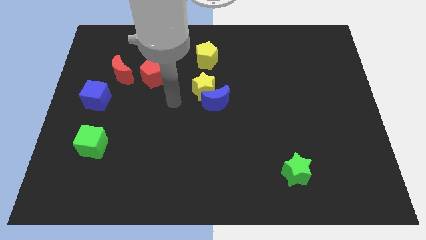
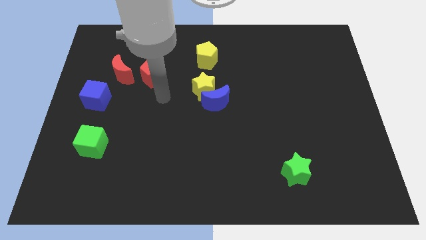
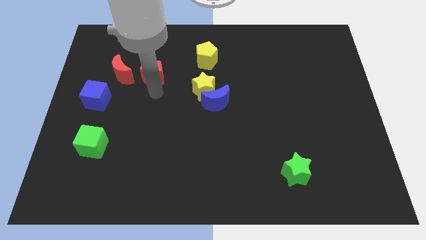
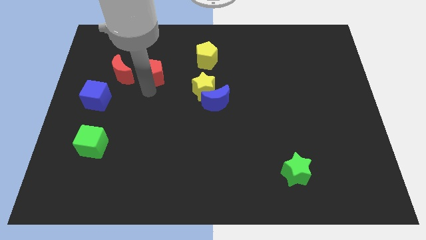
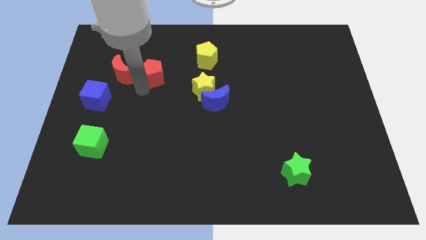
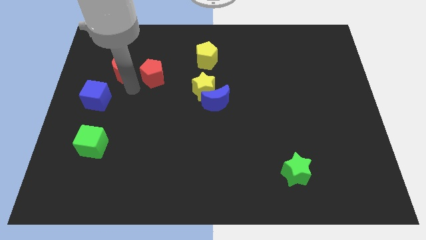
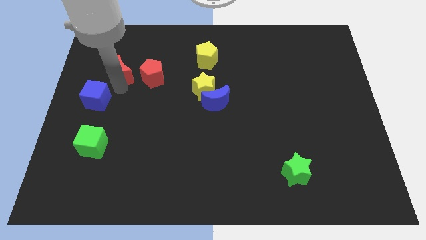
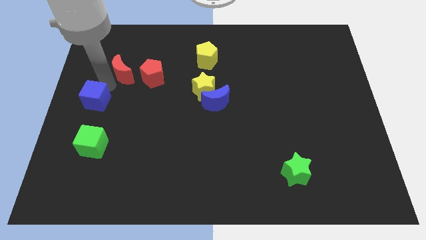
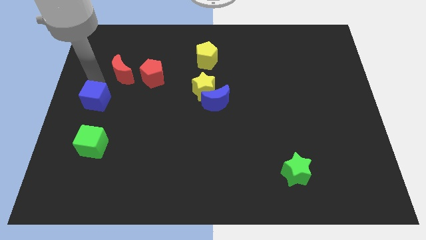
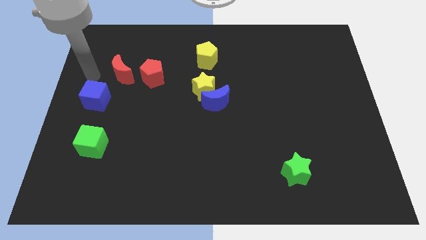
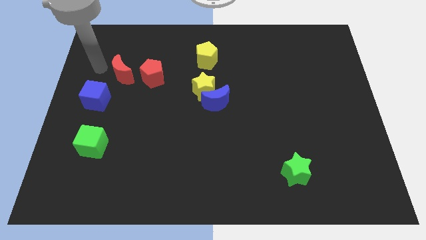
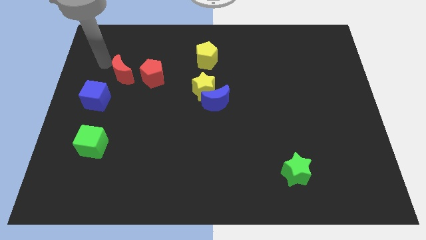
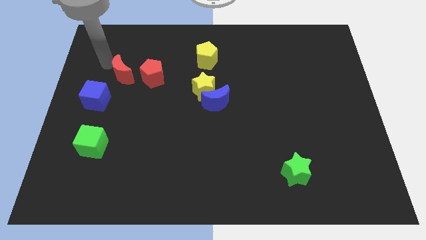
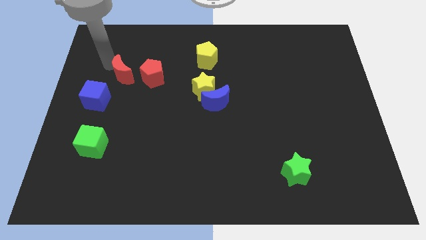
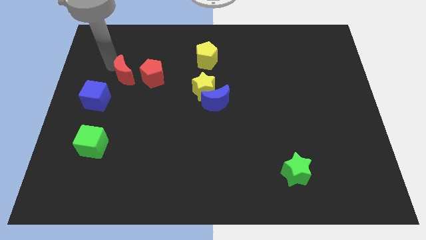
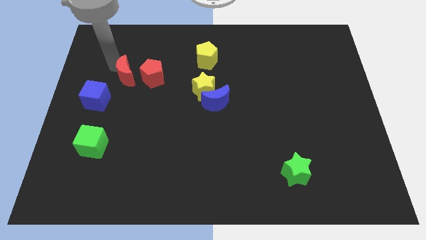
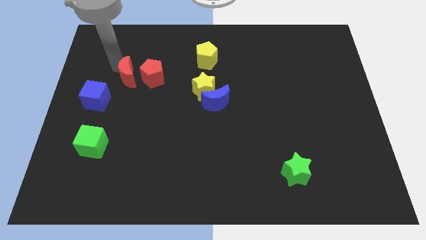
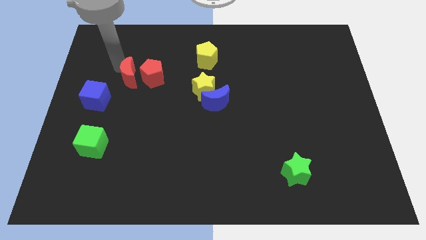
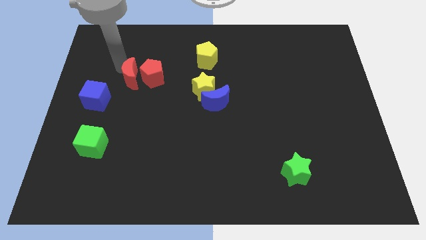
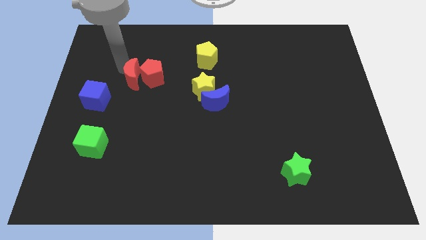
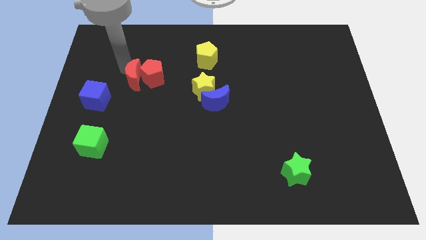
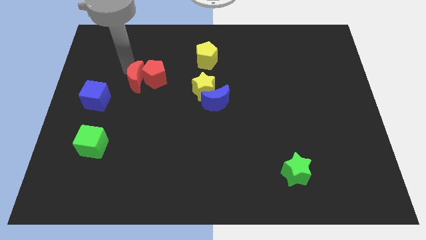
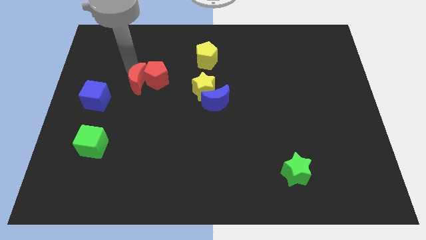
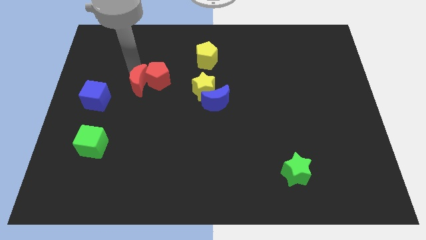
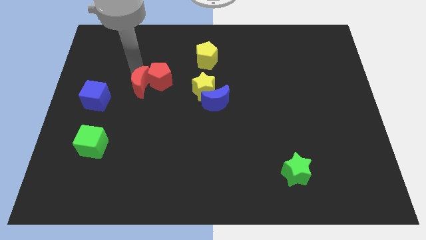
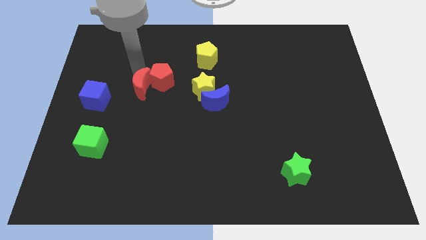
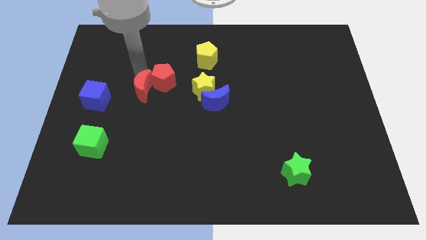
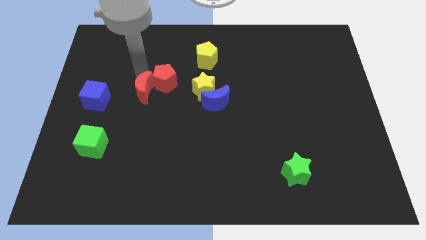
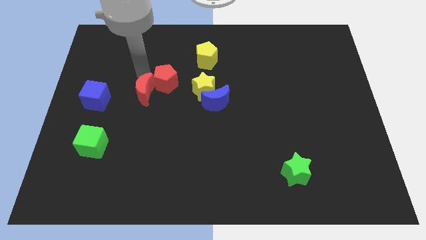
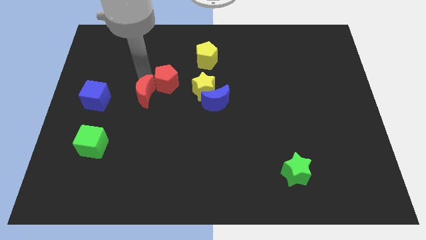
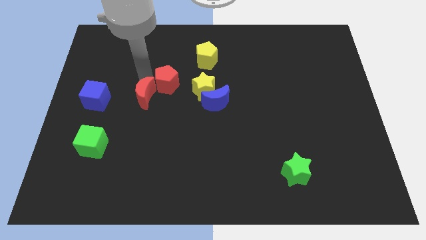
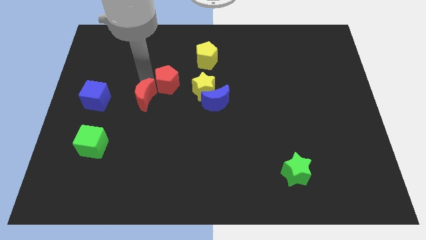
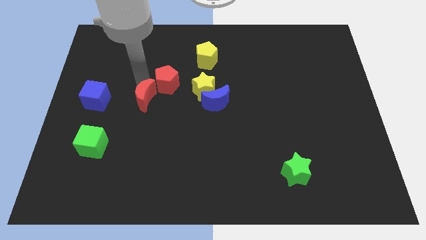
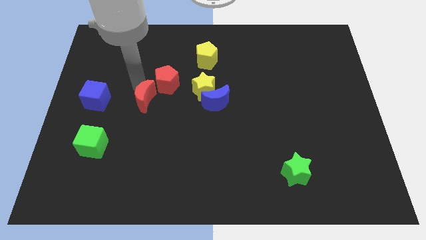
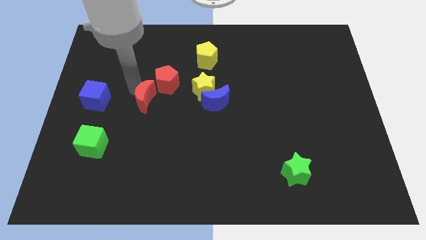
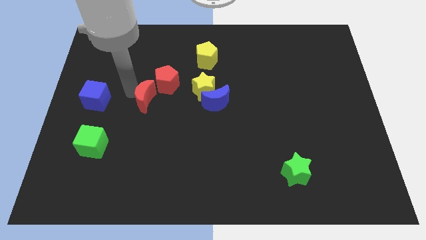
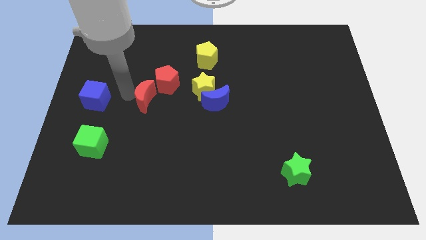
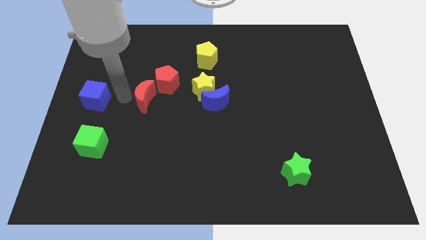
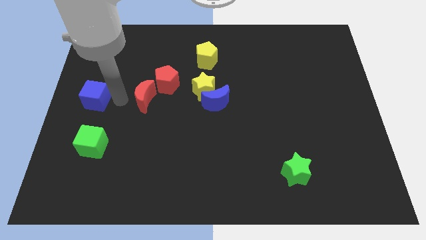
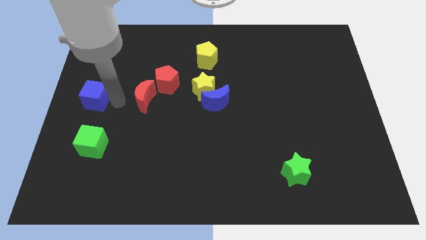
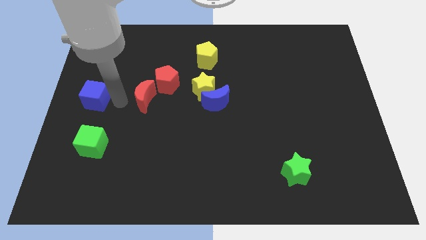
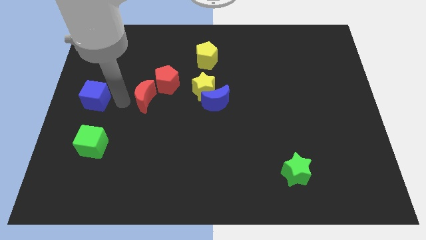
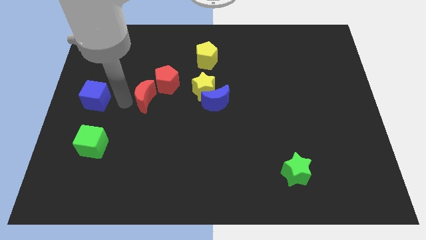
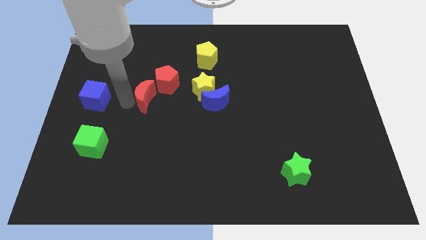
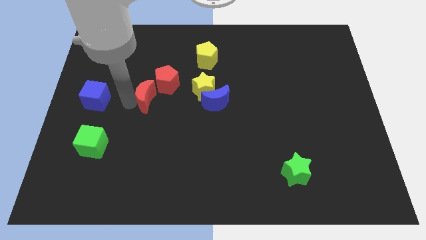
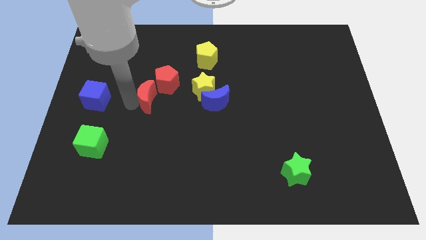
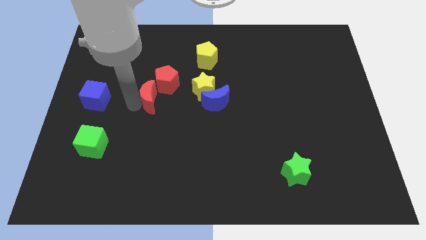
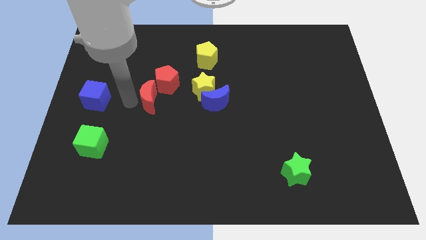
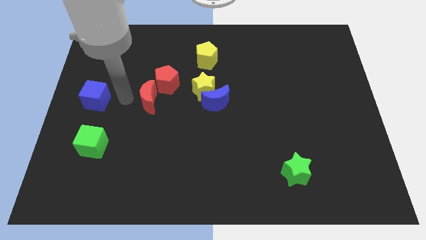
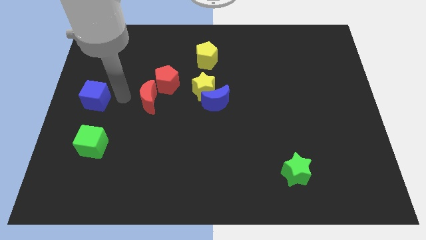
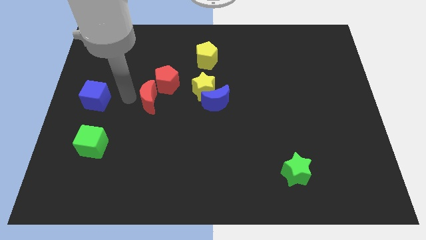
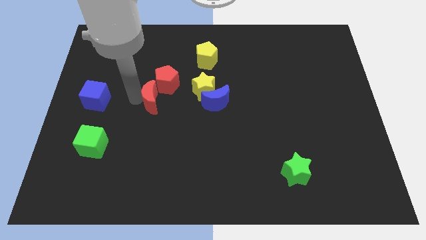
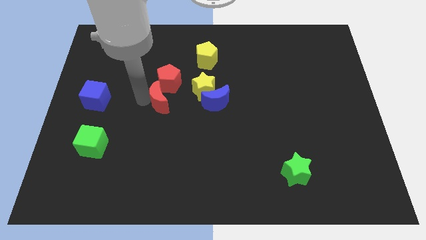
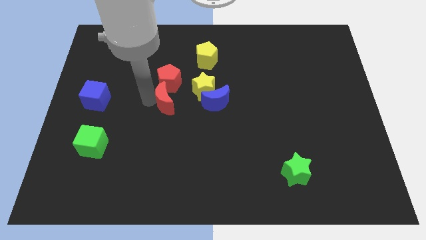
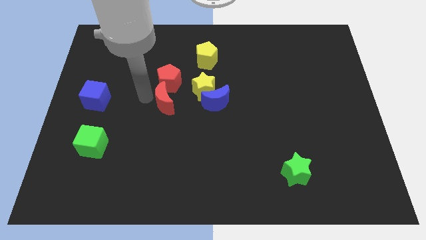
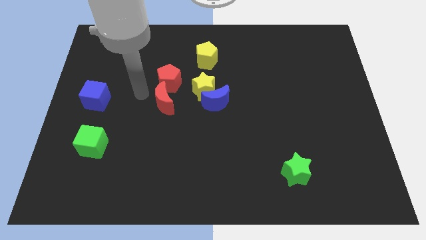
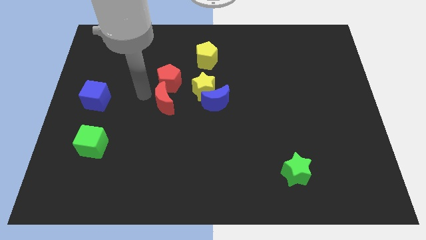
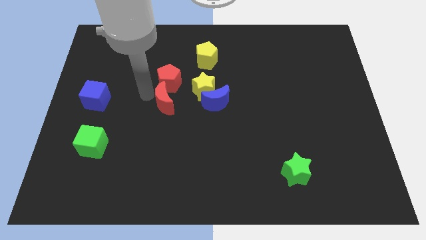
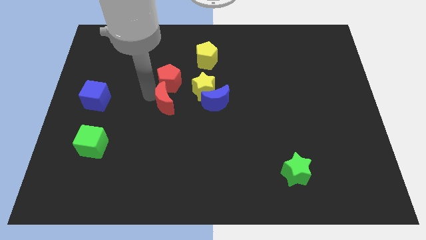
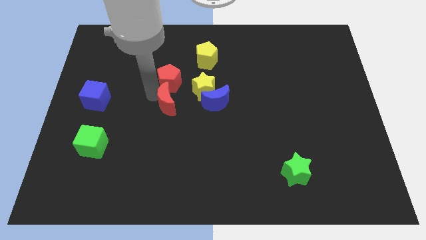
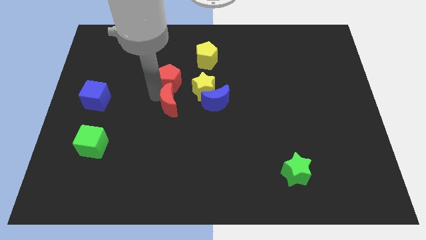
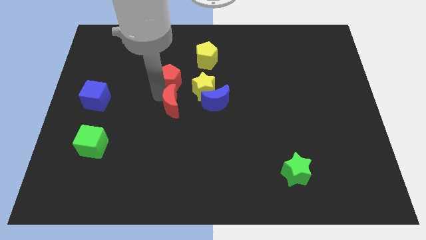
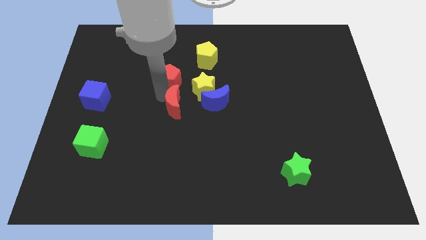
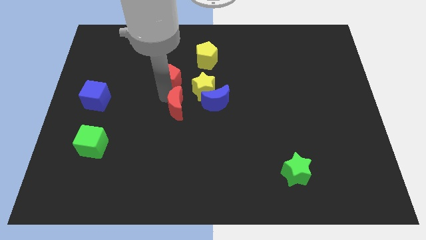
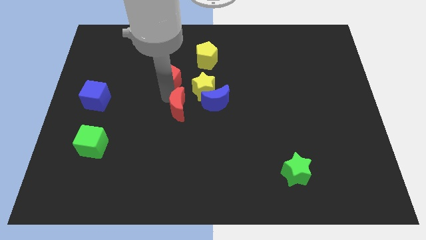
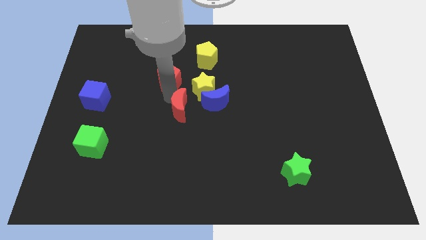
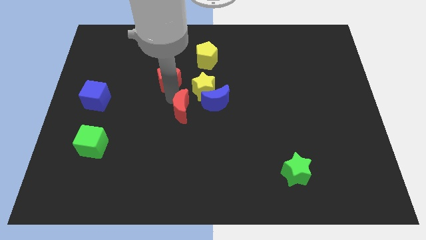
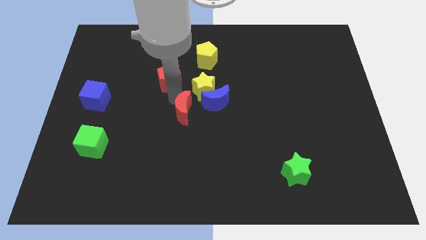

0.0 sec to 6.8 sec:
push the red moon to the bottom of the yellow star

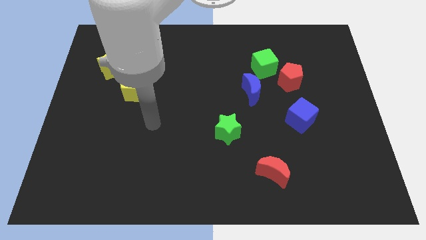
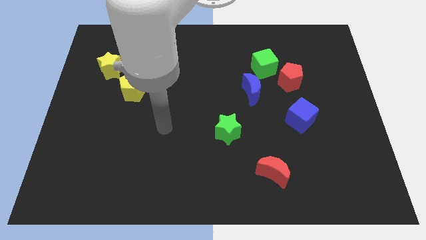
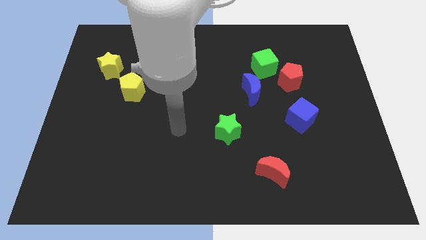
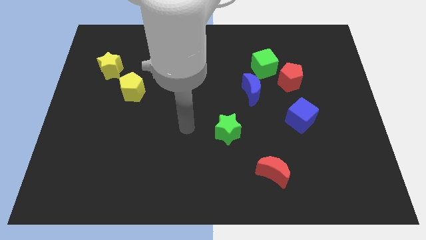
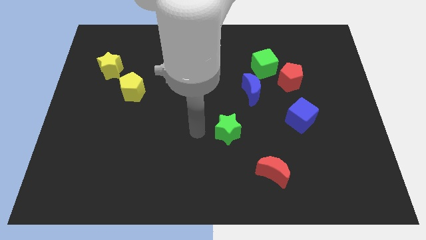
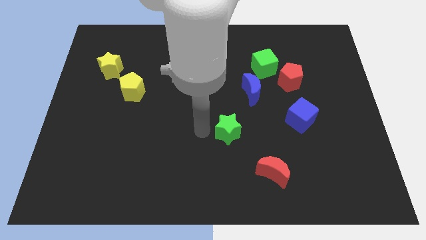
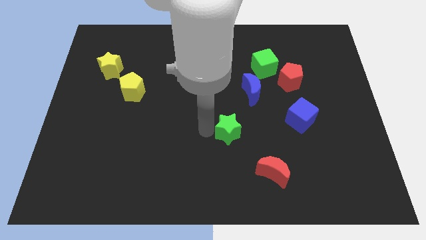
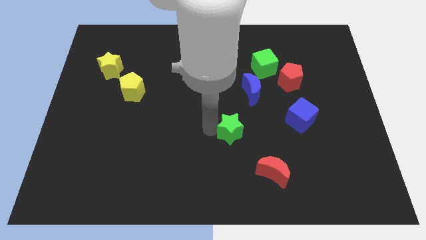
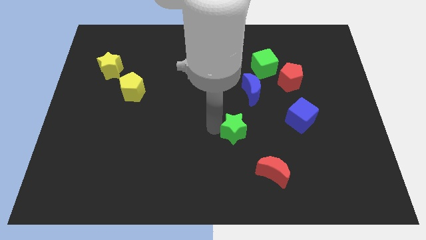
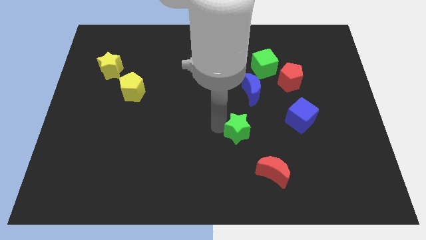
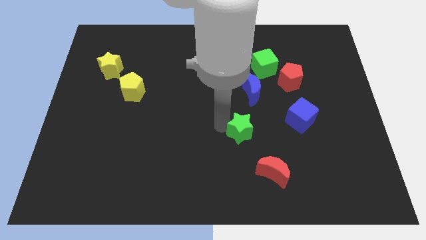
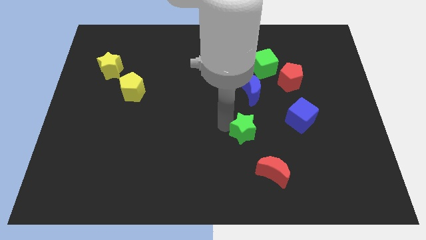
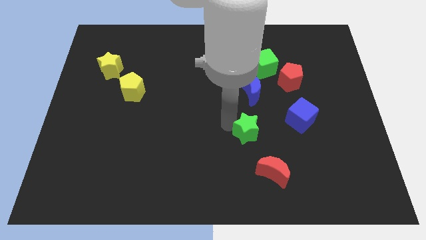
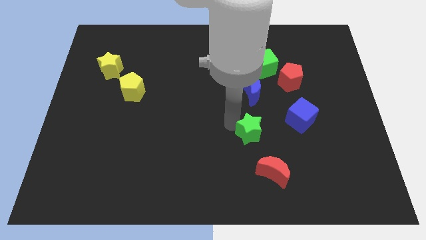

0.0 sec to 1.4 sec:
slide the green star to the top side of the red moon
